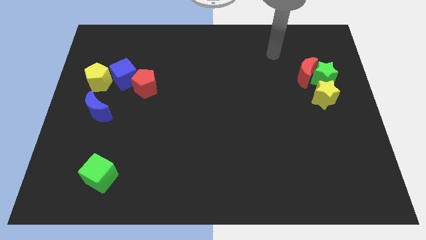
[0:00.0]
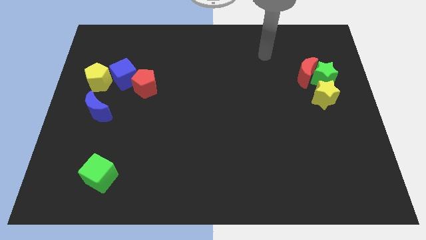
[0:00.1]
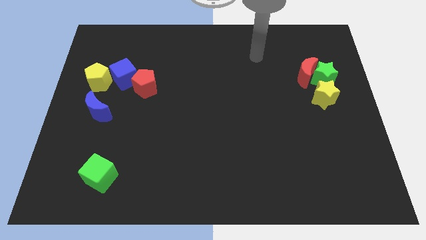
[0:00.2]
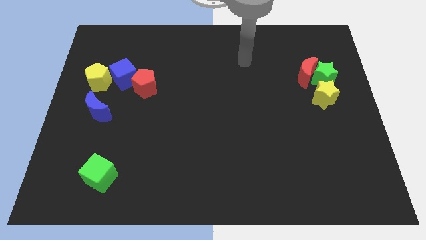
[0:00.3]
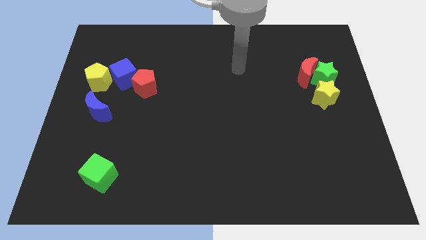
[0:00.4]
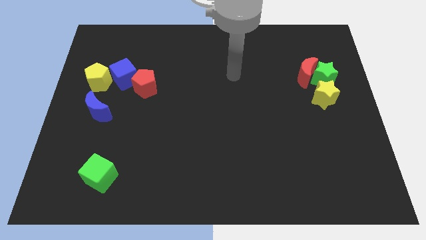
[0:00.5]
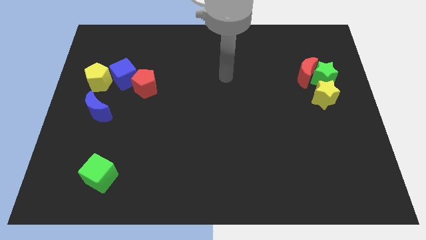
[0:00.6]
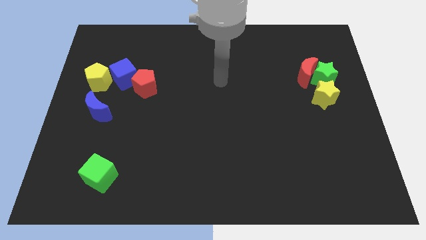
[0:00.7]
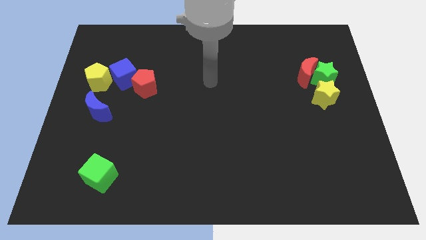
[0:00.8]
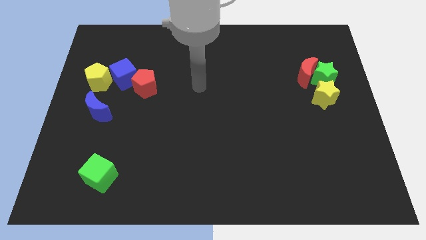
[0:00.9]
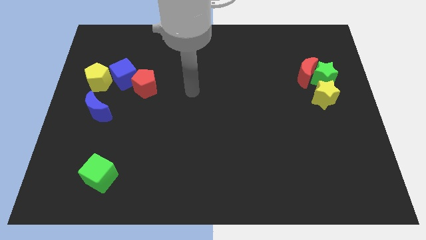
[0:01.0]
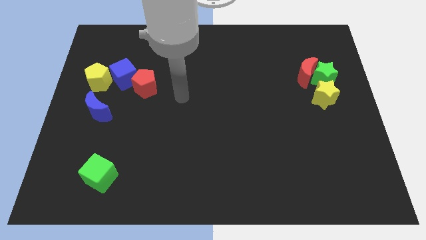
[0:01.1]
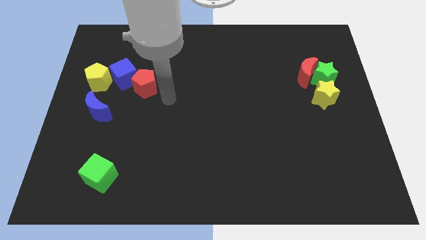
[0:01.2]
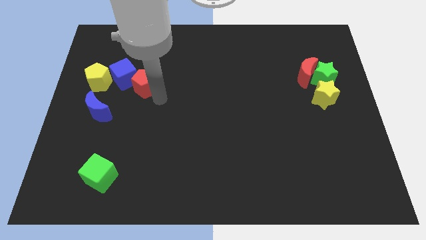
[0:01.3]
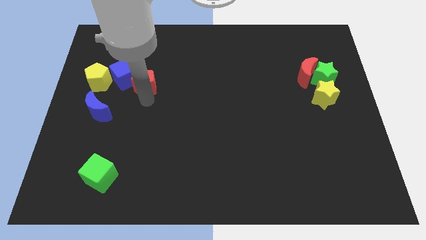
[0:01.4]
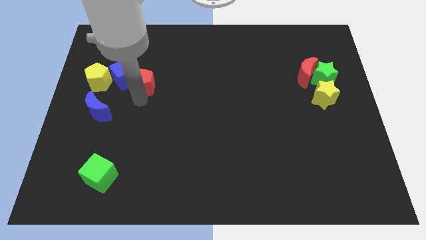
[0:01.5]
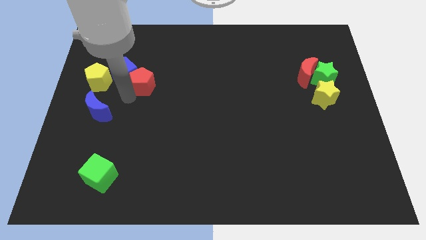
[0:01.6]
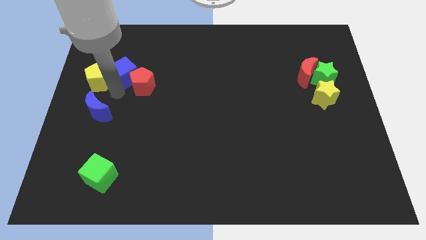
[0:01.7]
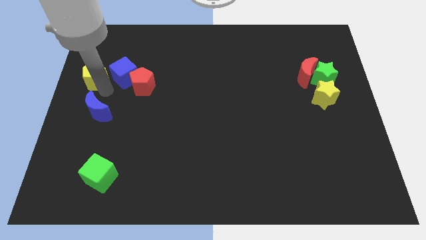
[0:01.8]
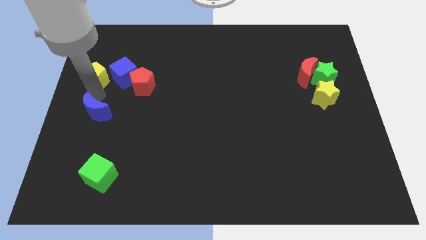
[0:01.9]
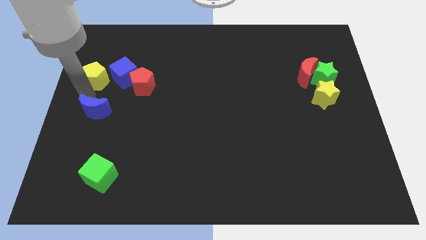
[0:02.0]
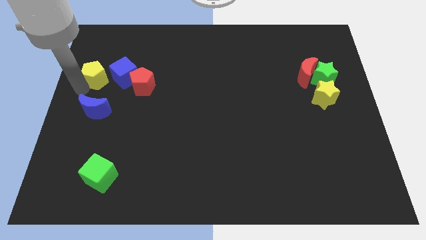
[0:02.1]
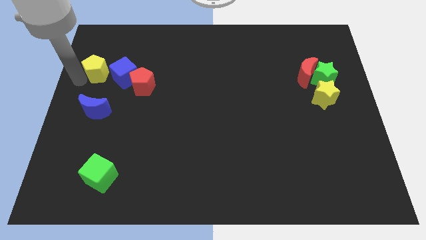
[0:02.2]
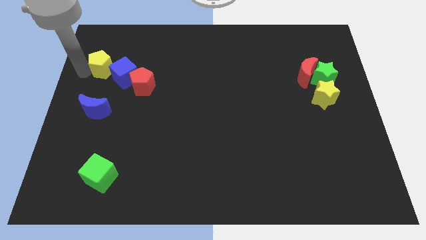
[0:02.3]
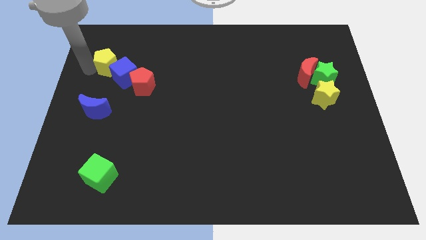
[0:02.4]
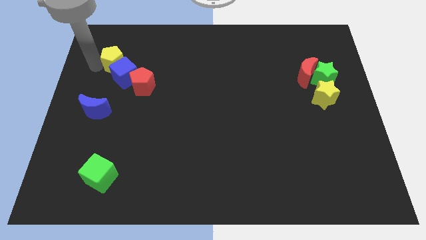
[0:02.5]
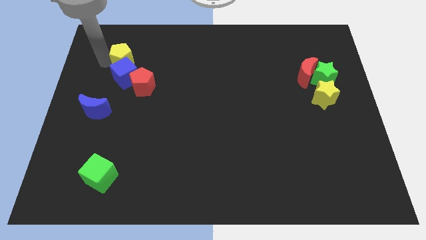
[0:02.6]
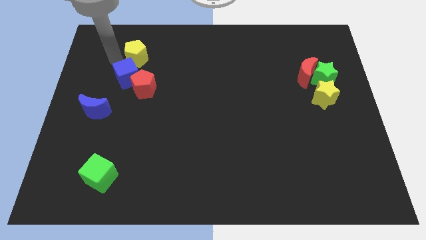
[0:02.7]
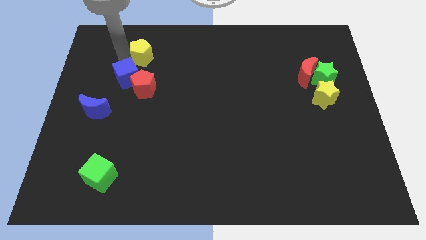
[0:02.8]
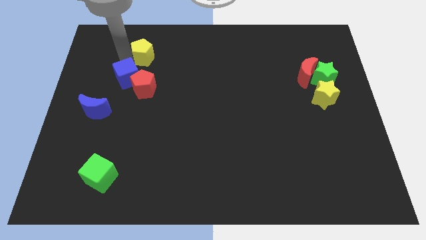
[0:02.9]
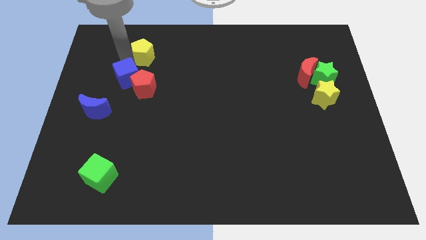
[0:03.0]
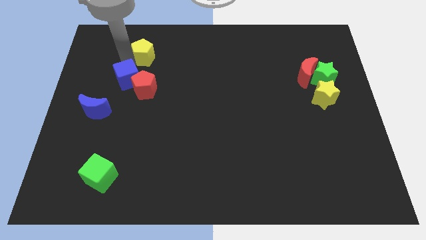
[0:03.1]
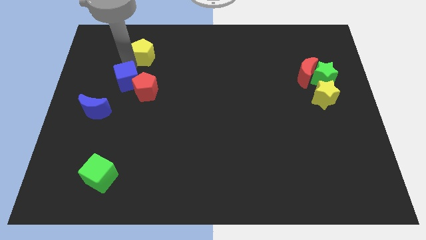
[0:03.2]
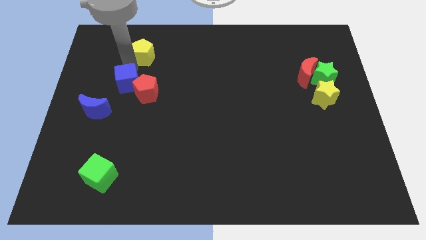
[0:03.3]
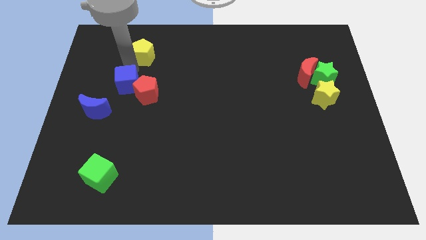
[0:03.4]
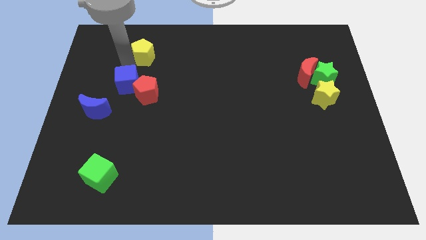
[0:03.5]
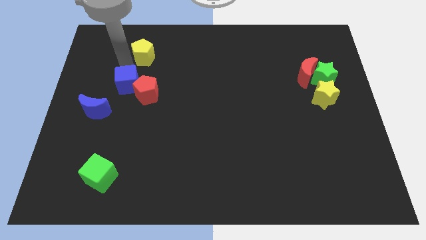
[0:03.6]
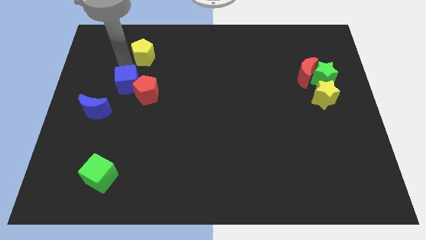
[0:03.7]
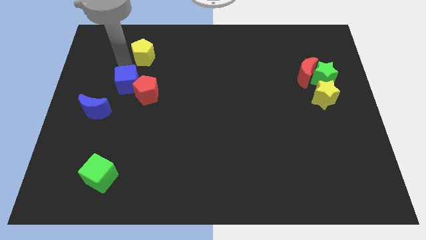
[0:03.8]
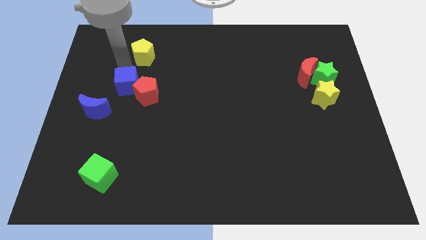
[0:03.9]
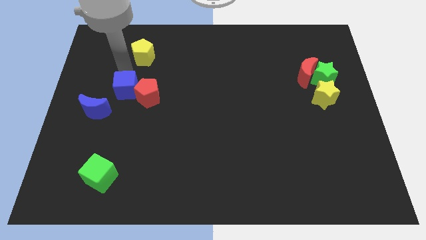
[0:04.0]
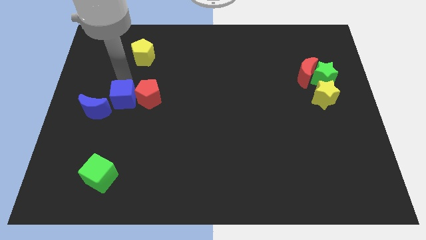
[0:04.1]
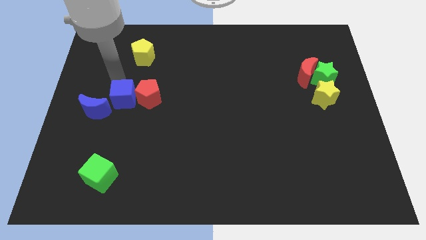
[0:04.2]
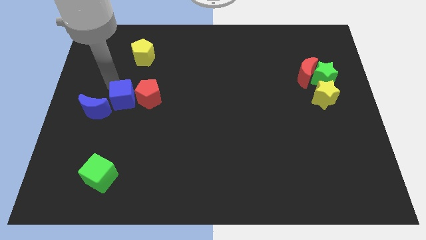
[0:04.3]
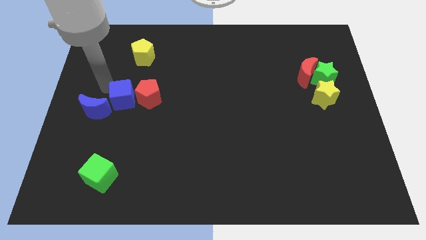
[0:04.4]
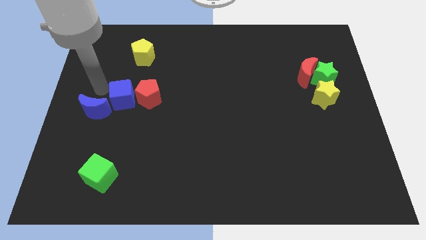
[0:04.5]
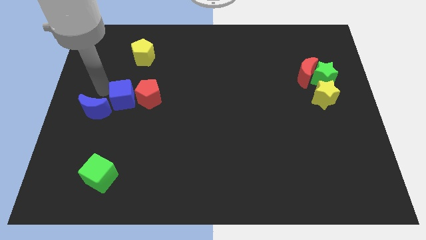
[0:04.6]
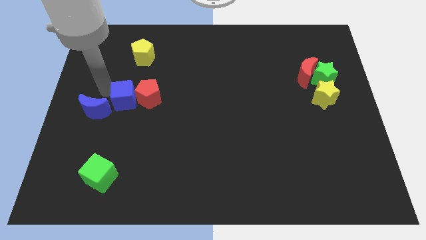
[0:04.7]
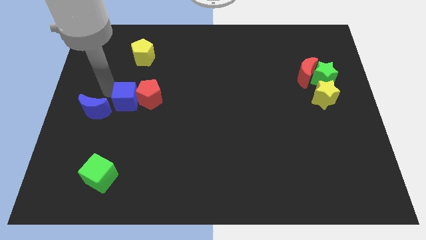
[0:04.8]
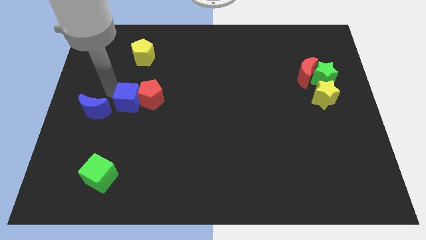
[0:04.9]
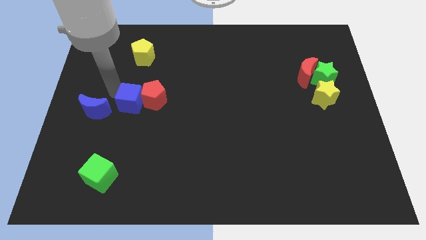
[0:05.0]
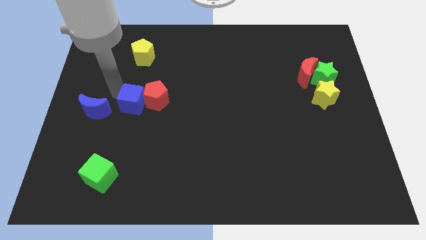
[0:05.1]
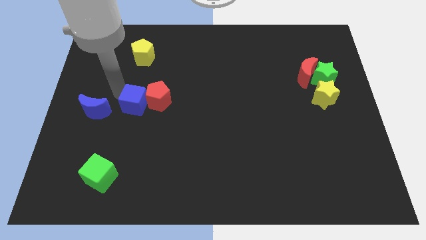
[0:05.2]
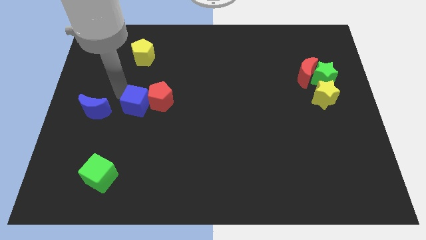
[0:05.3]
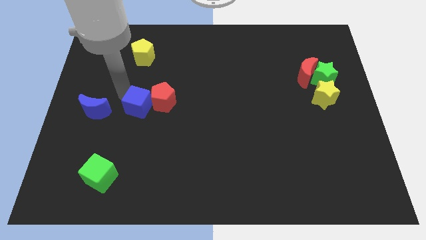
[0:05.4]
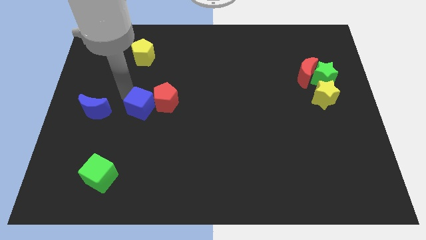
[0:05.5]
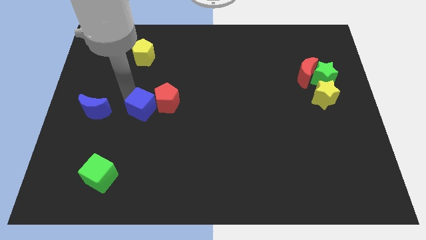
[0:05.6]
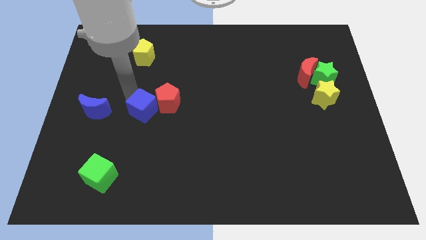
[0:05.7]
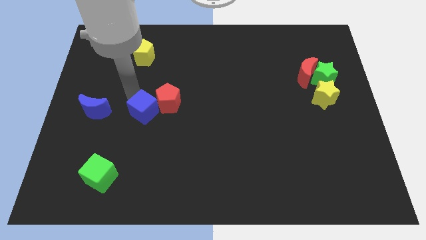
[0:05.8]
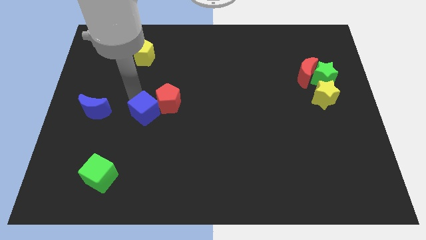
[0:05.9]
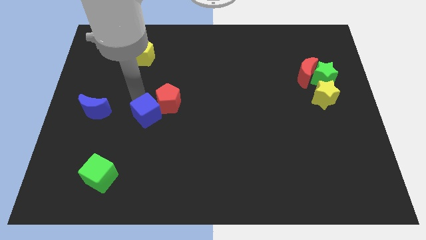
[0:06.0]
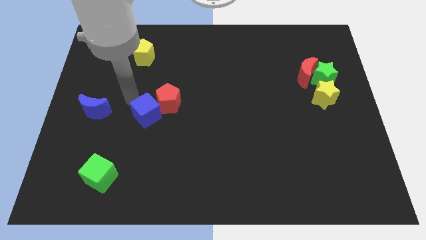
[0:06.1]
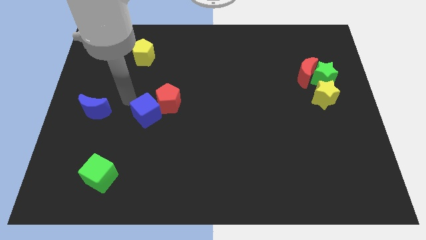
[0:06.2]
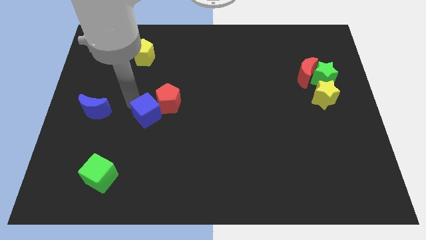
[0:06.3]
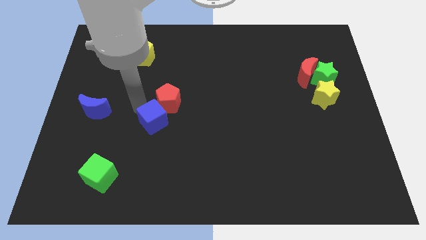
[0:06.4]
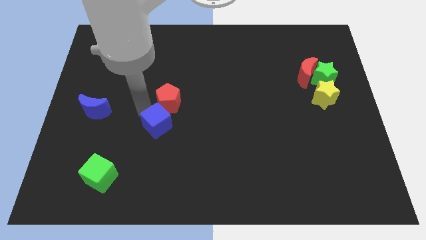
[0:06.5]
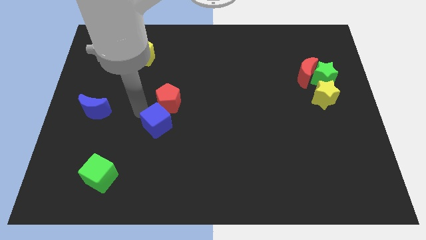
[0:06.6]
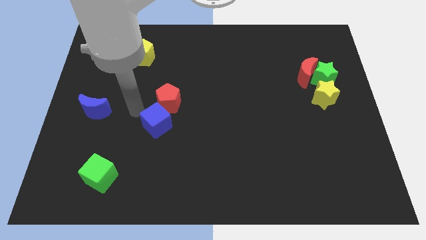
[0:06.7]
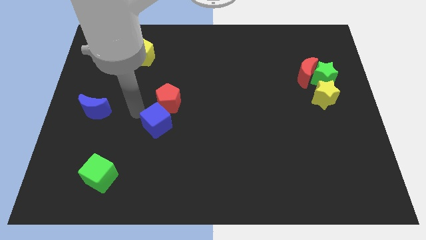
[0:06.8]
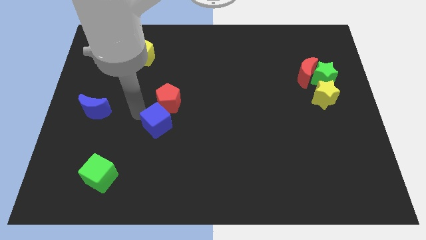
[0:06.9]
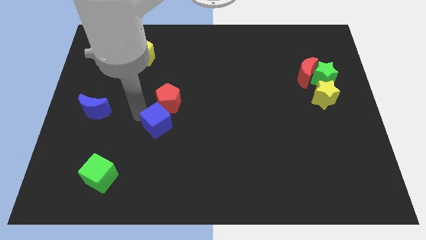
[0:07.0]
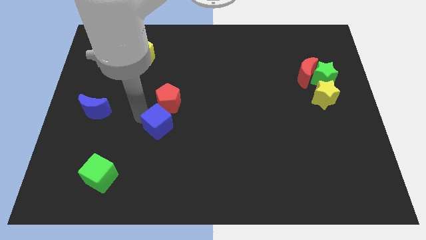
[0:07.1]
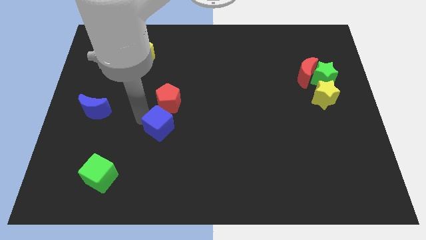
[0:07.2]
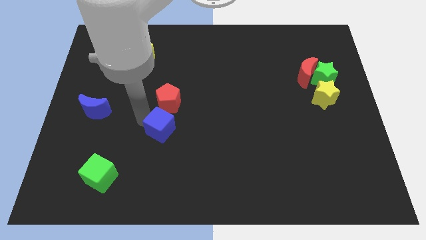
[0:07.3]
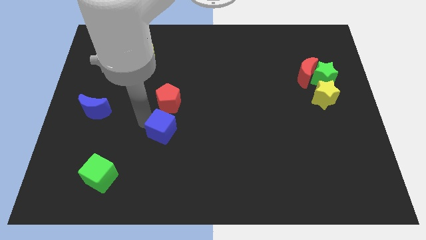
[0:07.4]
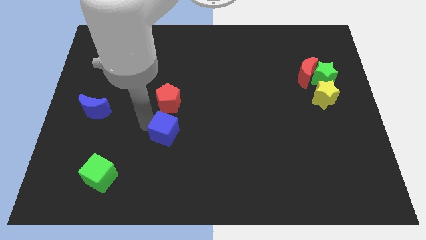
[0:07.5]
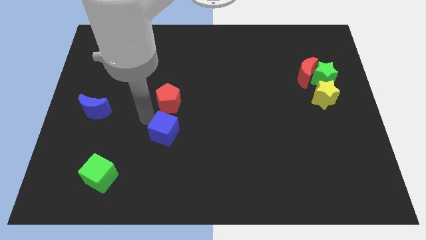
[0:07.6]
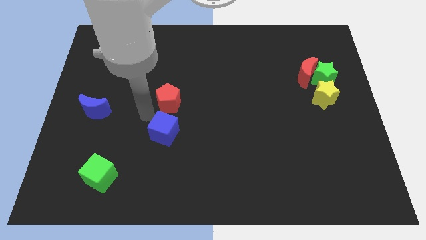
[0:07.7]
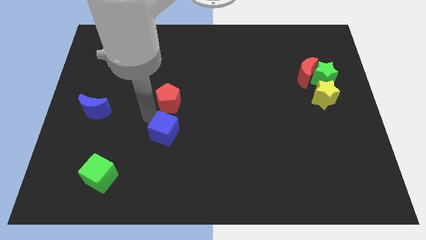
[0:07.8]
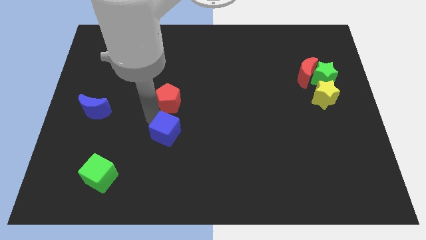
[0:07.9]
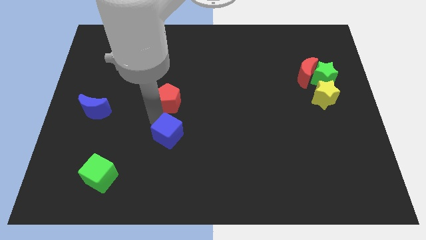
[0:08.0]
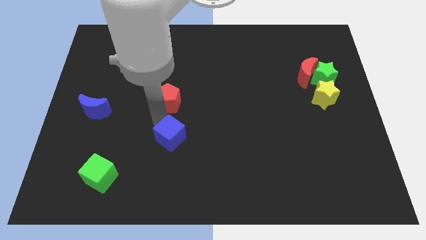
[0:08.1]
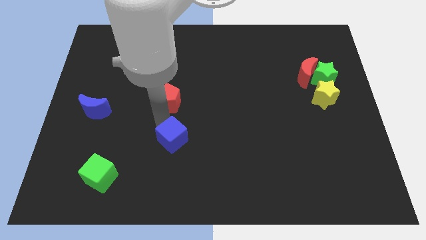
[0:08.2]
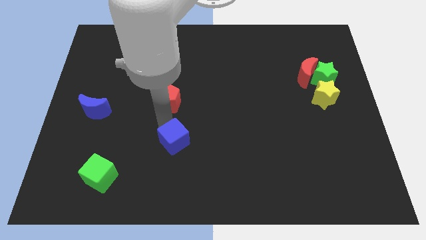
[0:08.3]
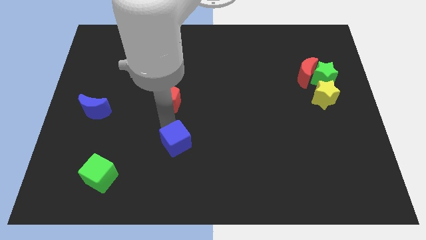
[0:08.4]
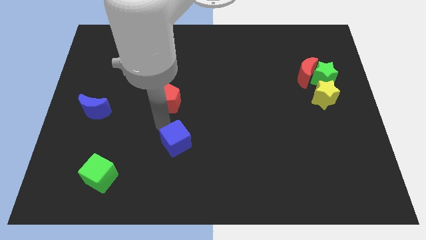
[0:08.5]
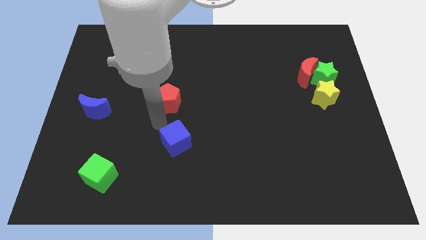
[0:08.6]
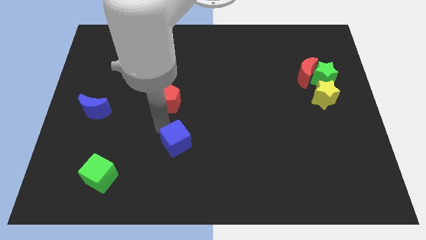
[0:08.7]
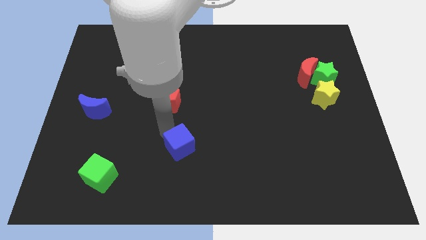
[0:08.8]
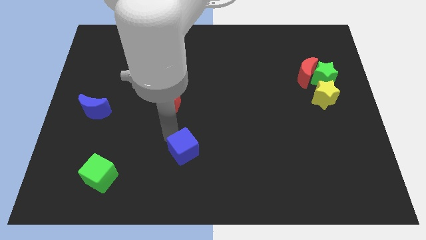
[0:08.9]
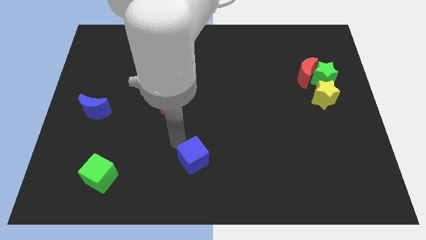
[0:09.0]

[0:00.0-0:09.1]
slide the blue cube to the bottom side
